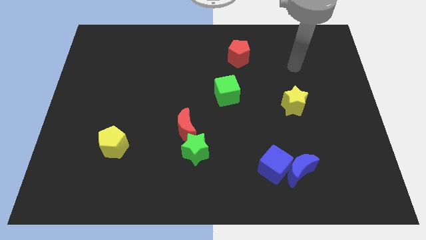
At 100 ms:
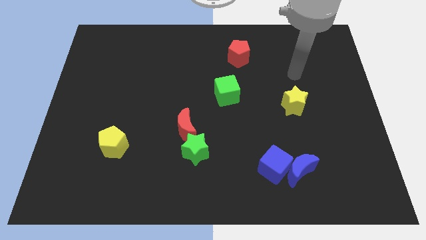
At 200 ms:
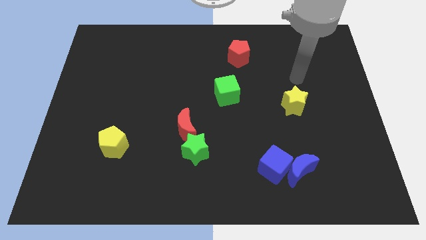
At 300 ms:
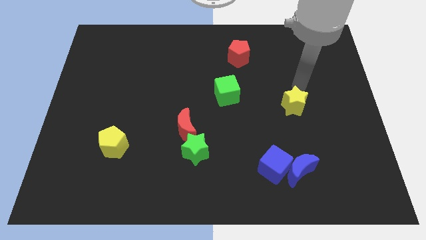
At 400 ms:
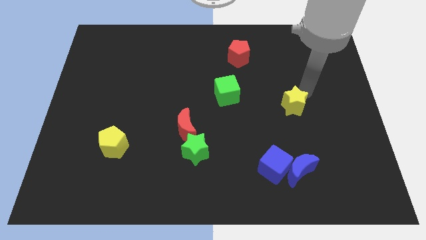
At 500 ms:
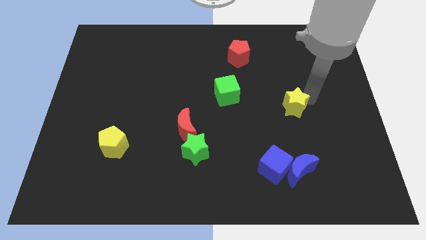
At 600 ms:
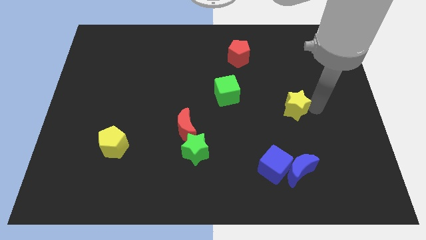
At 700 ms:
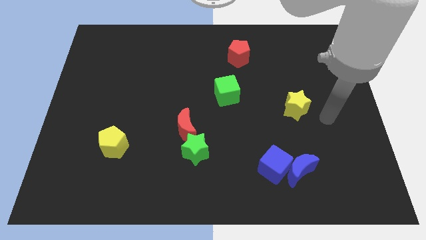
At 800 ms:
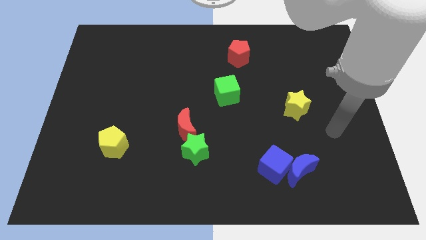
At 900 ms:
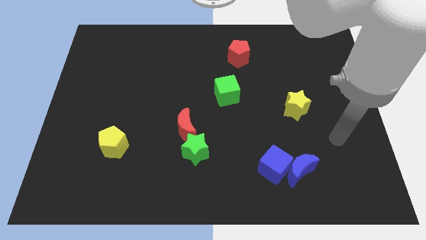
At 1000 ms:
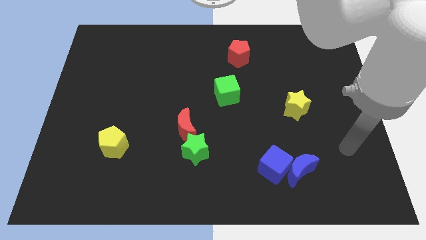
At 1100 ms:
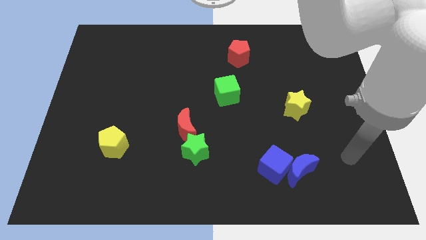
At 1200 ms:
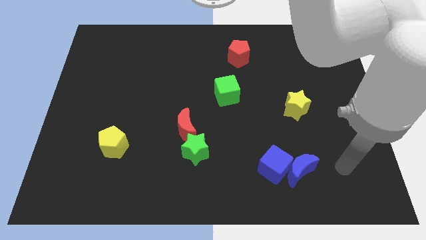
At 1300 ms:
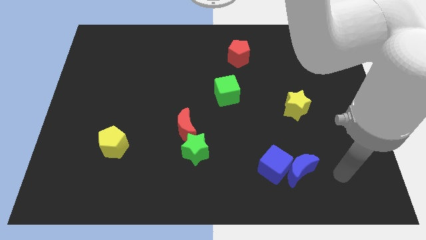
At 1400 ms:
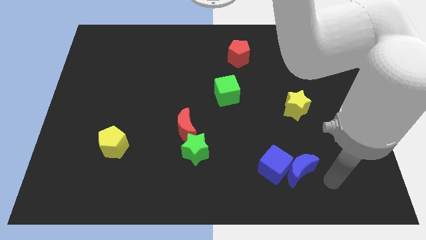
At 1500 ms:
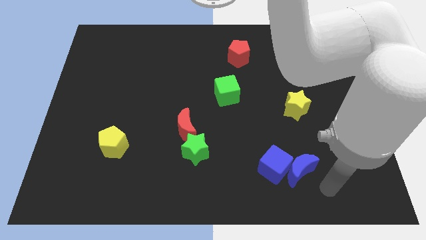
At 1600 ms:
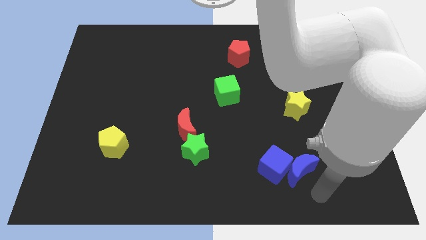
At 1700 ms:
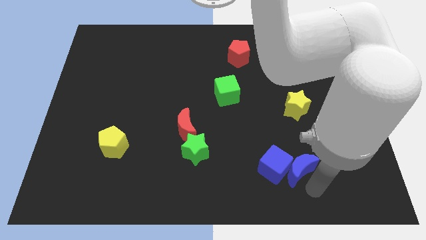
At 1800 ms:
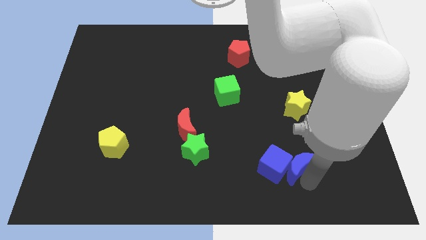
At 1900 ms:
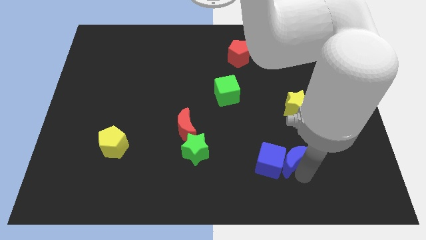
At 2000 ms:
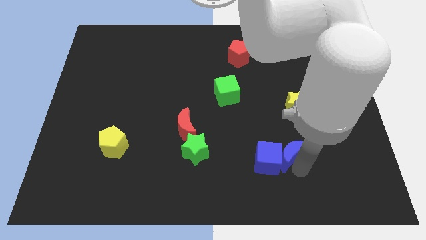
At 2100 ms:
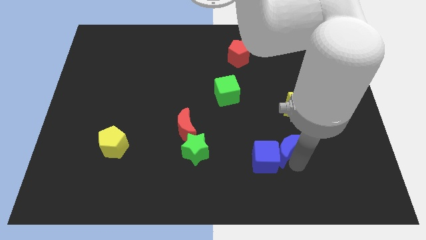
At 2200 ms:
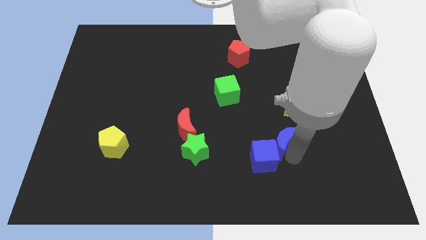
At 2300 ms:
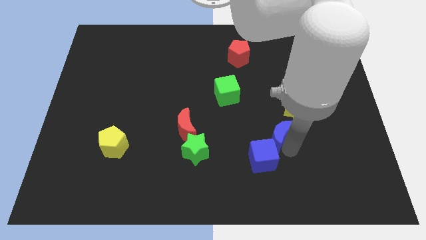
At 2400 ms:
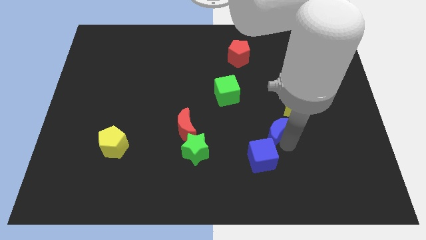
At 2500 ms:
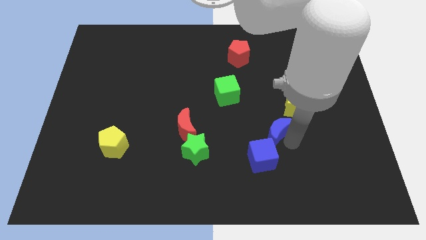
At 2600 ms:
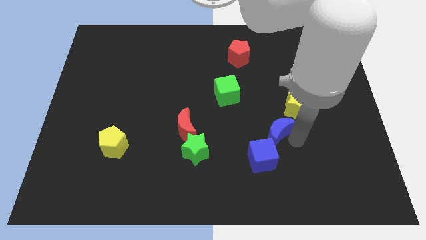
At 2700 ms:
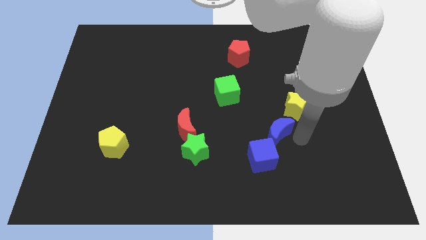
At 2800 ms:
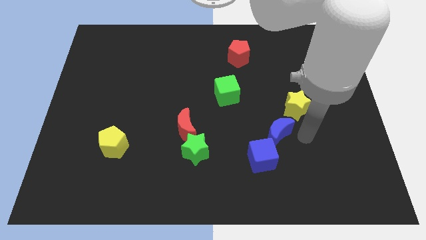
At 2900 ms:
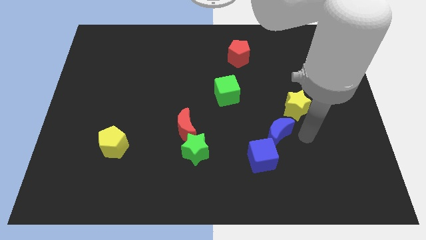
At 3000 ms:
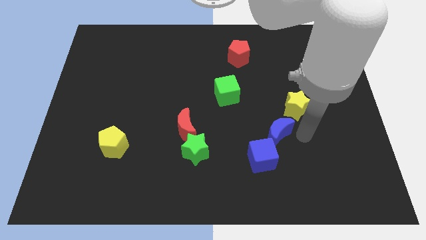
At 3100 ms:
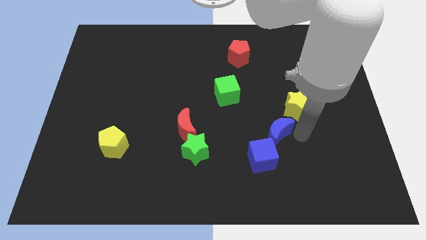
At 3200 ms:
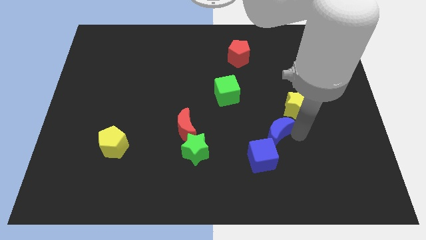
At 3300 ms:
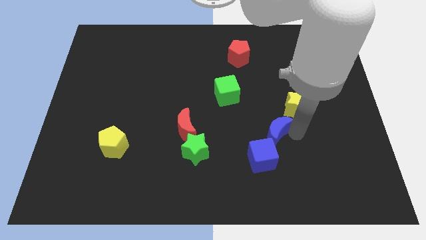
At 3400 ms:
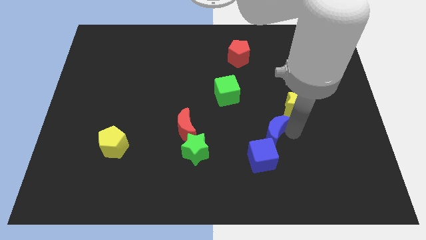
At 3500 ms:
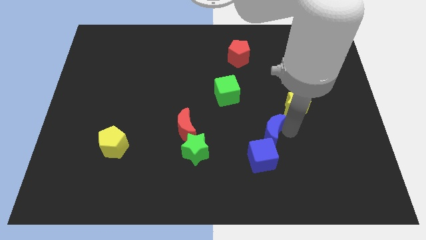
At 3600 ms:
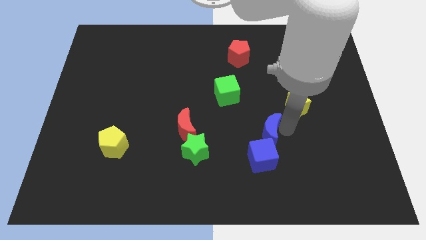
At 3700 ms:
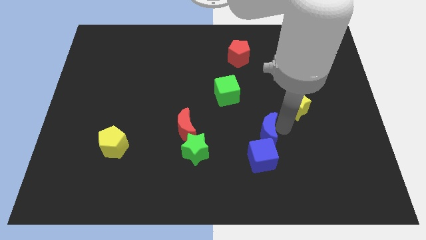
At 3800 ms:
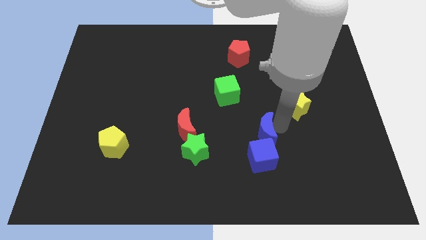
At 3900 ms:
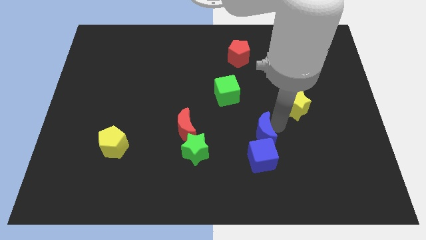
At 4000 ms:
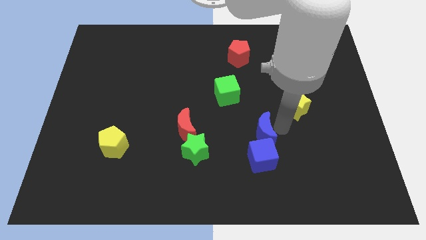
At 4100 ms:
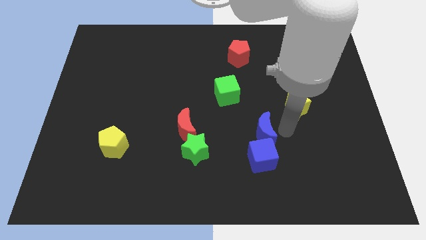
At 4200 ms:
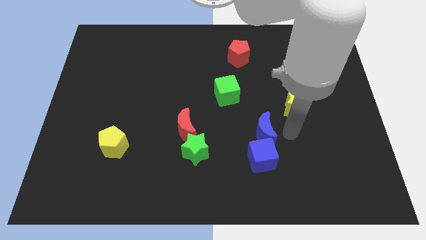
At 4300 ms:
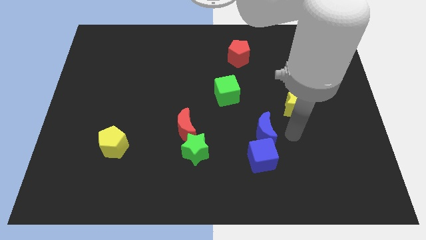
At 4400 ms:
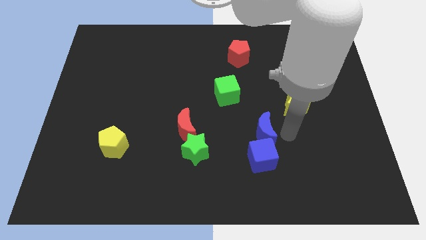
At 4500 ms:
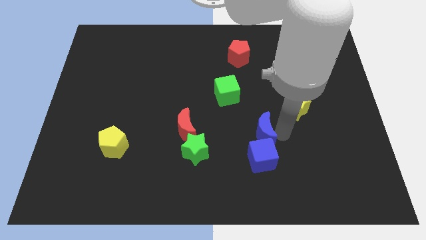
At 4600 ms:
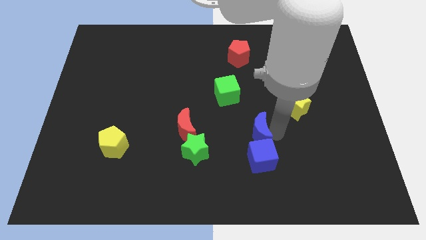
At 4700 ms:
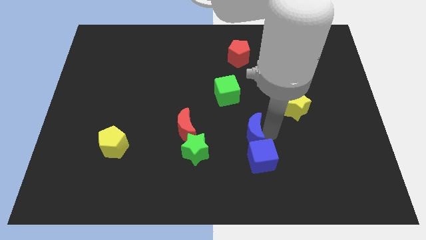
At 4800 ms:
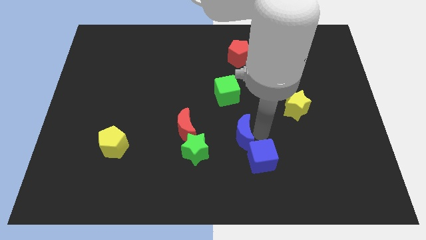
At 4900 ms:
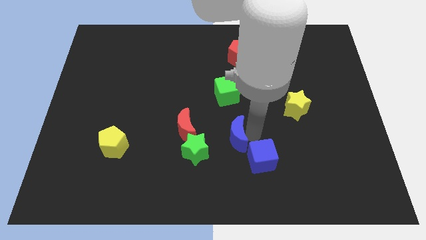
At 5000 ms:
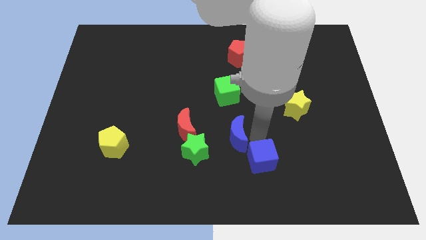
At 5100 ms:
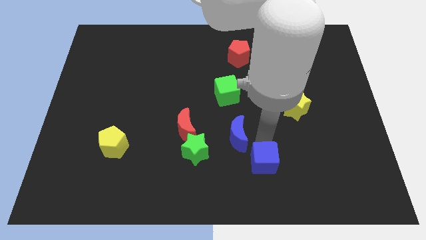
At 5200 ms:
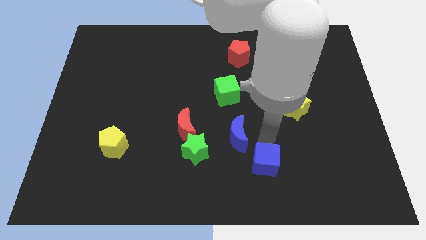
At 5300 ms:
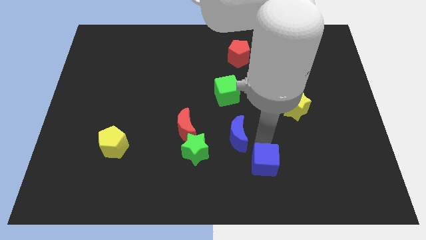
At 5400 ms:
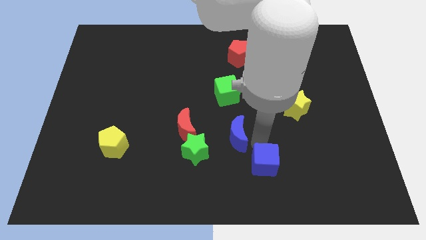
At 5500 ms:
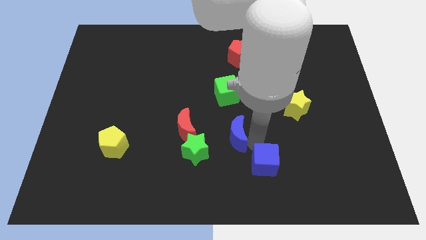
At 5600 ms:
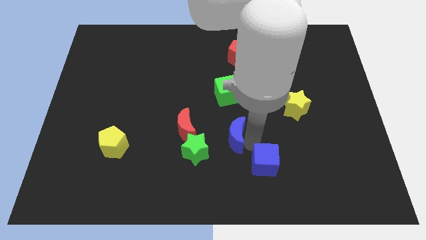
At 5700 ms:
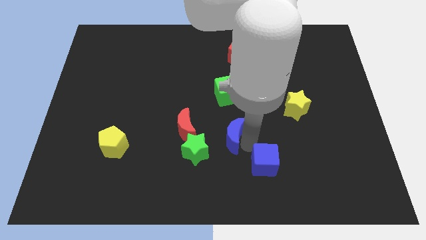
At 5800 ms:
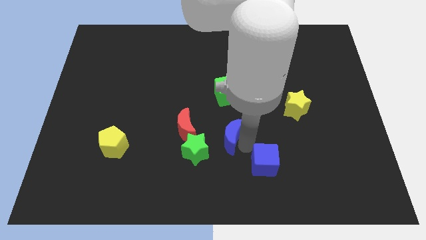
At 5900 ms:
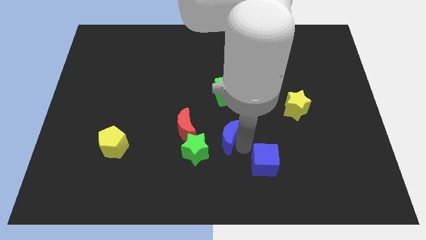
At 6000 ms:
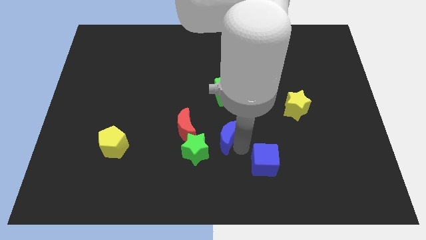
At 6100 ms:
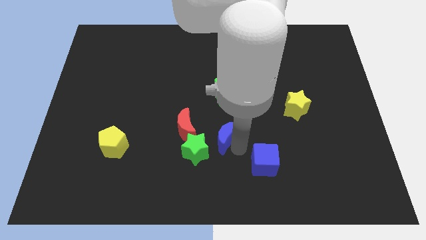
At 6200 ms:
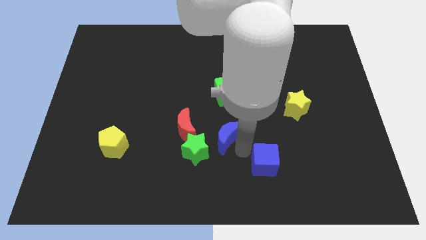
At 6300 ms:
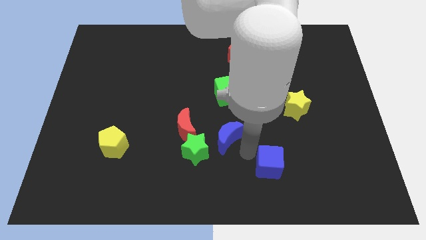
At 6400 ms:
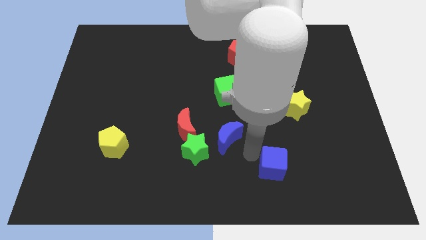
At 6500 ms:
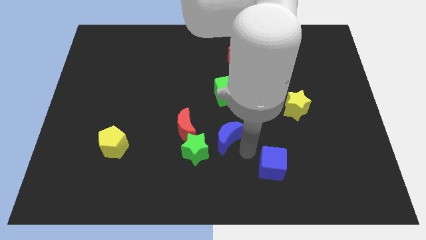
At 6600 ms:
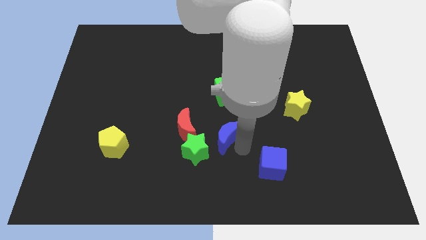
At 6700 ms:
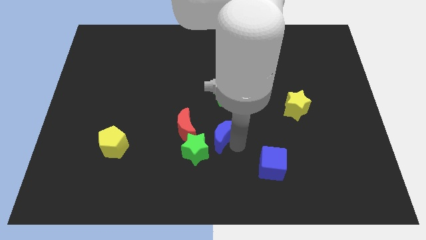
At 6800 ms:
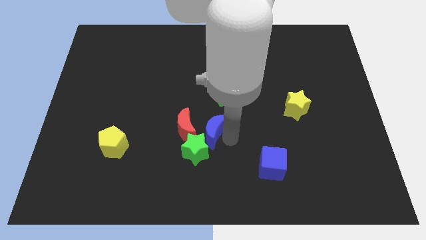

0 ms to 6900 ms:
push the blue moon towards the red moon

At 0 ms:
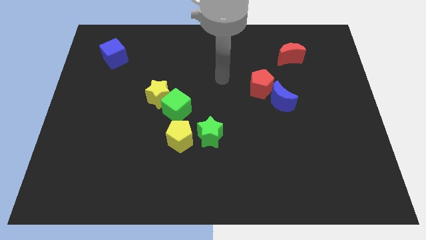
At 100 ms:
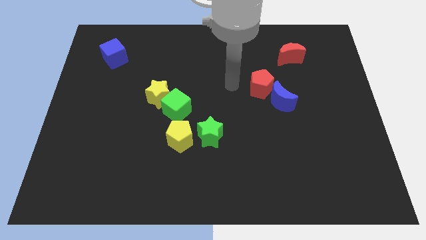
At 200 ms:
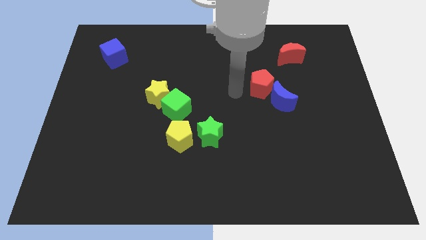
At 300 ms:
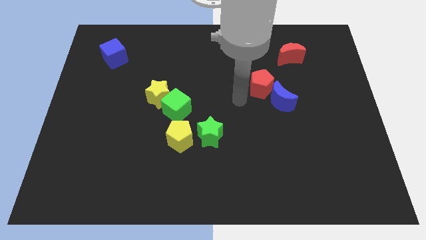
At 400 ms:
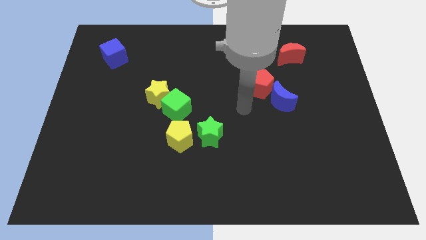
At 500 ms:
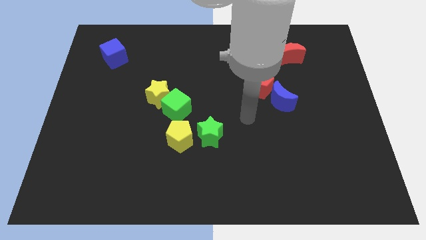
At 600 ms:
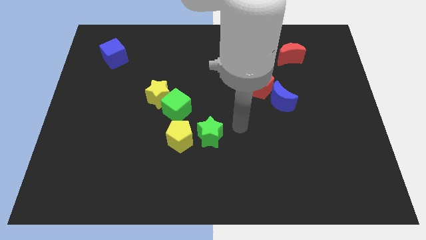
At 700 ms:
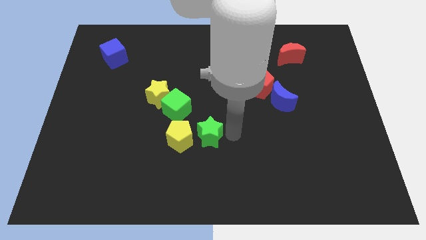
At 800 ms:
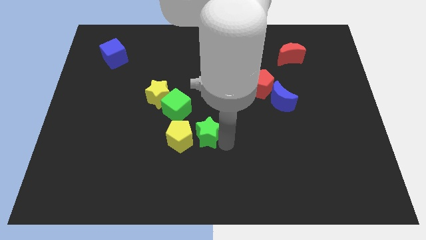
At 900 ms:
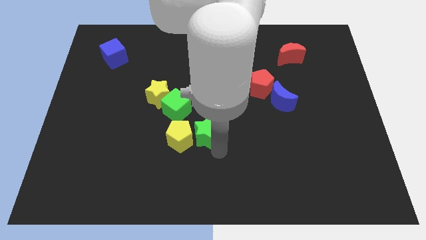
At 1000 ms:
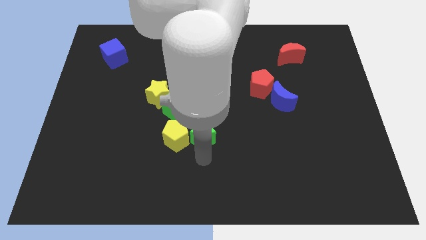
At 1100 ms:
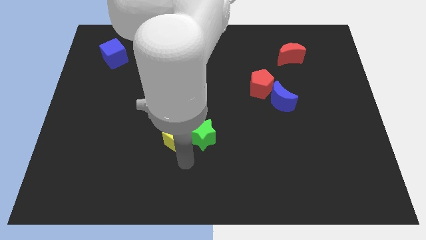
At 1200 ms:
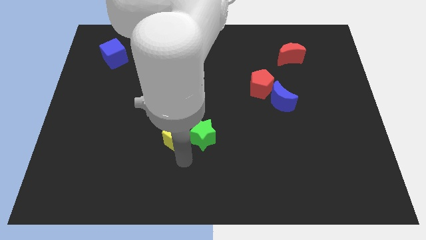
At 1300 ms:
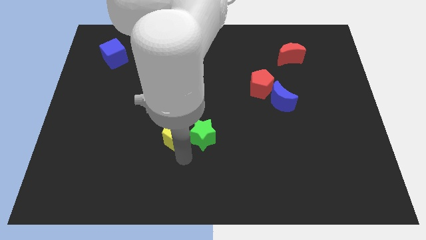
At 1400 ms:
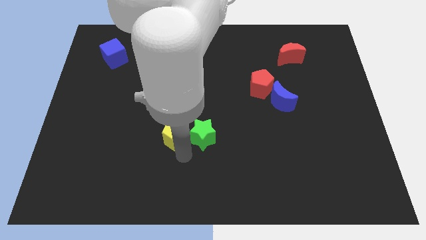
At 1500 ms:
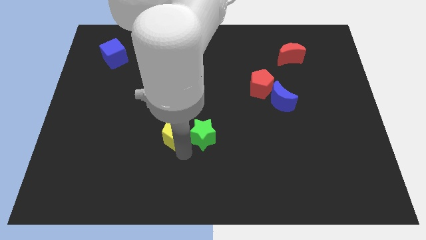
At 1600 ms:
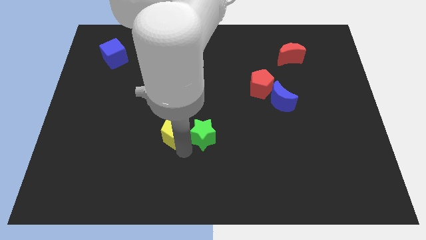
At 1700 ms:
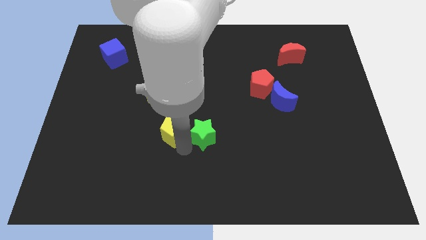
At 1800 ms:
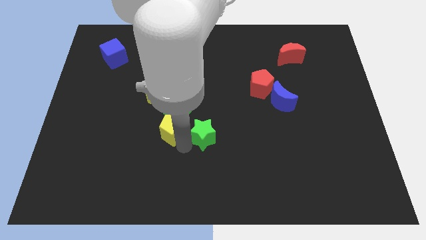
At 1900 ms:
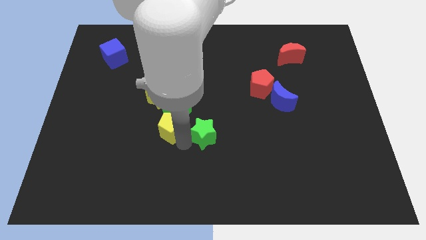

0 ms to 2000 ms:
put the yellow pentagon next to the green cube
